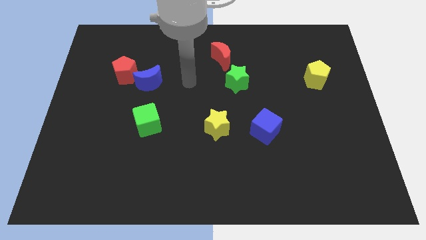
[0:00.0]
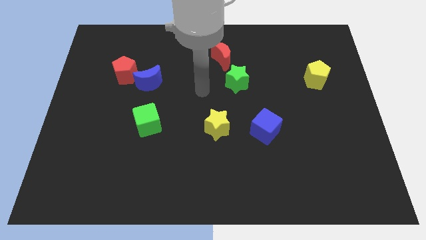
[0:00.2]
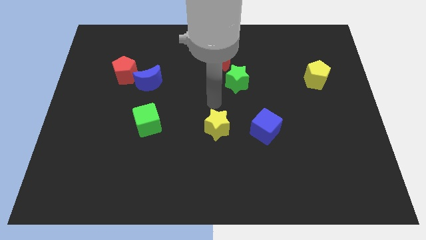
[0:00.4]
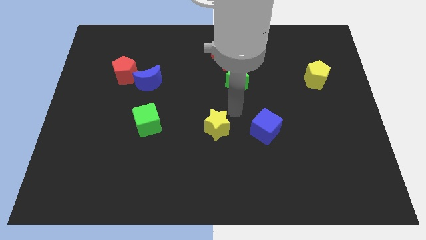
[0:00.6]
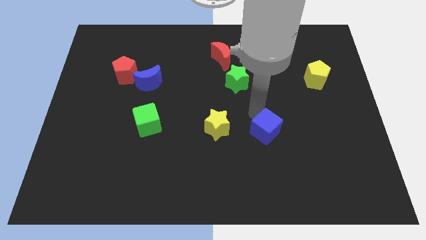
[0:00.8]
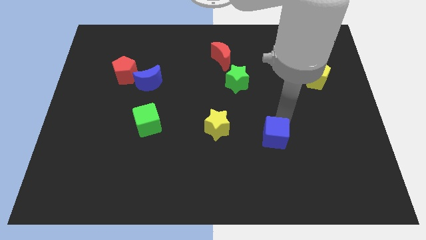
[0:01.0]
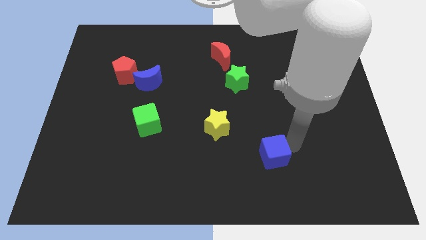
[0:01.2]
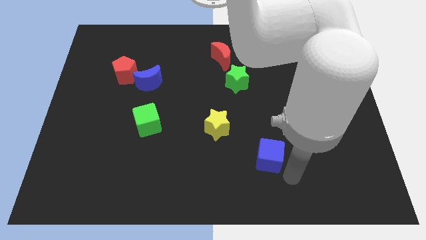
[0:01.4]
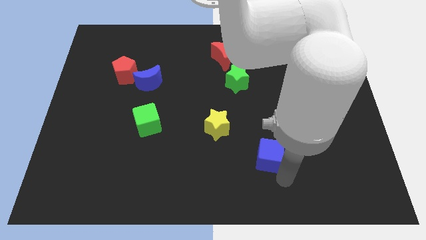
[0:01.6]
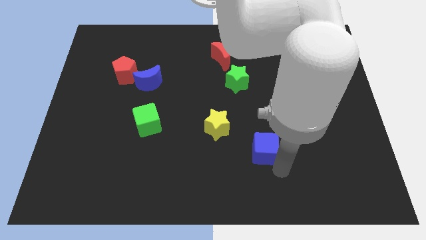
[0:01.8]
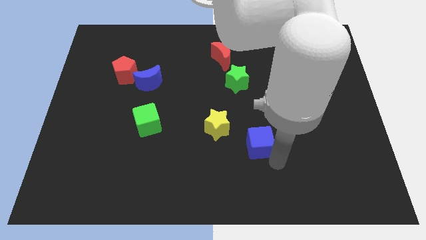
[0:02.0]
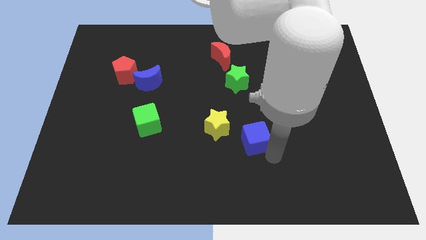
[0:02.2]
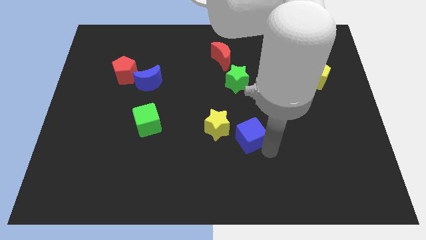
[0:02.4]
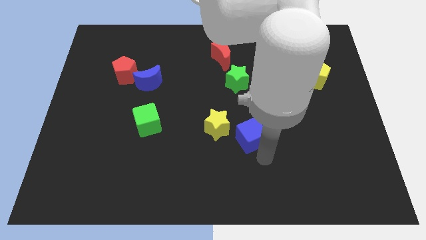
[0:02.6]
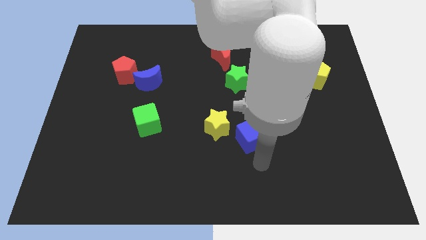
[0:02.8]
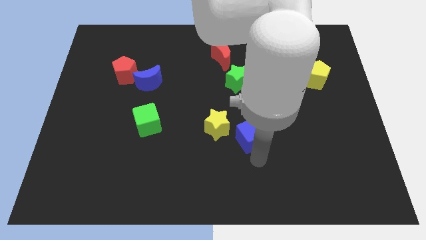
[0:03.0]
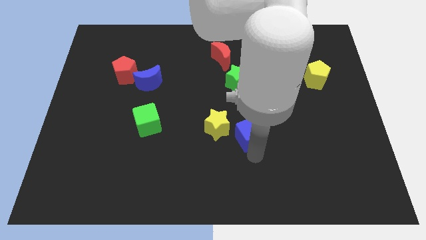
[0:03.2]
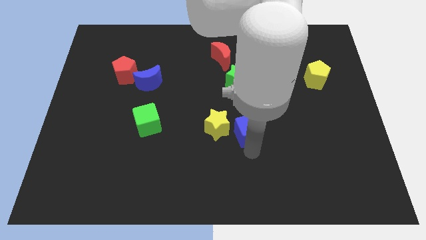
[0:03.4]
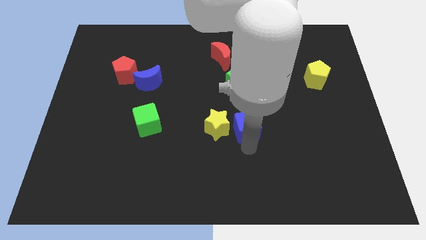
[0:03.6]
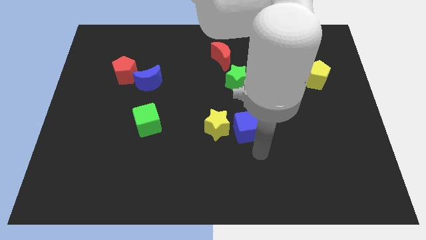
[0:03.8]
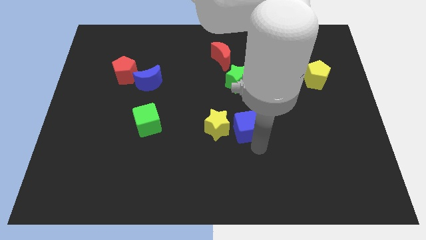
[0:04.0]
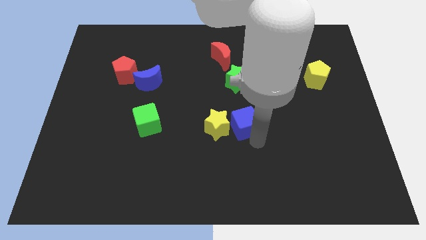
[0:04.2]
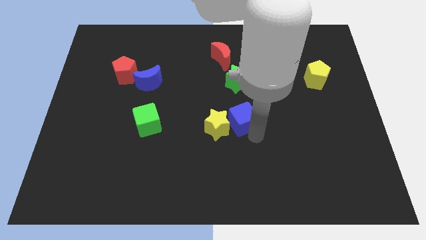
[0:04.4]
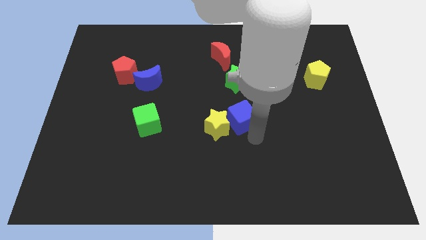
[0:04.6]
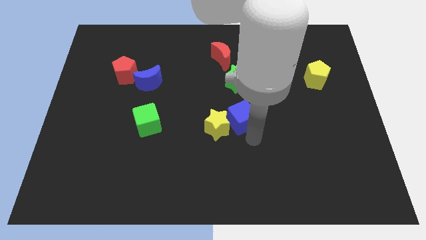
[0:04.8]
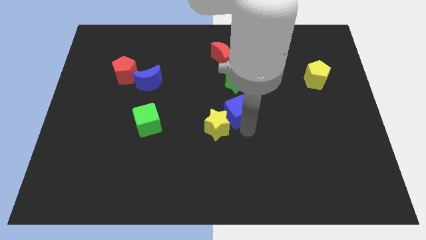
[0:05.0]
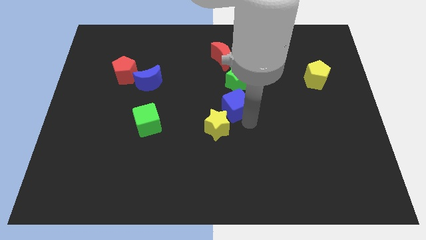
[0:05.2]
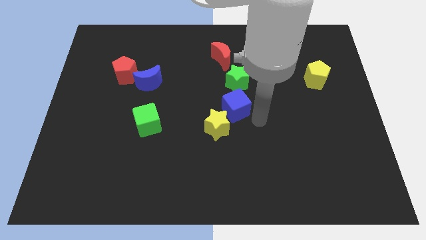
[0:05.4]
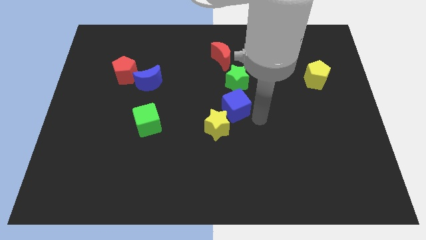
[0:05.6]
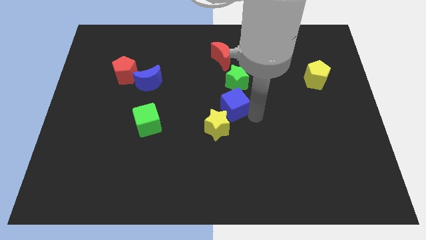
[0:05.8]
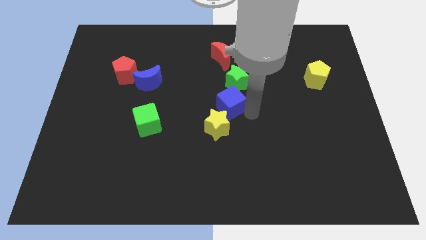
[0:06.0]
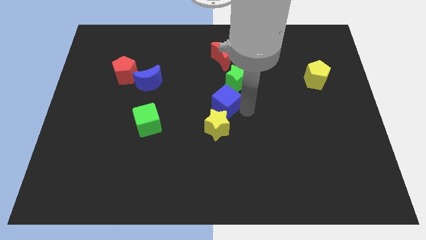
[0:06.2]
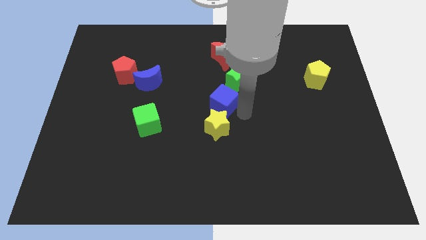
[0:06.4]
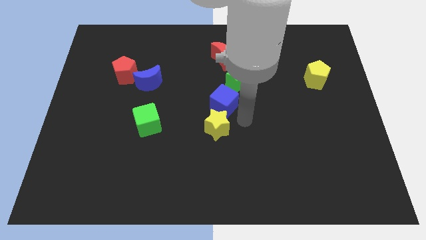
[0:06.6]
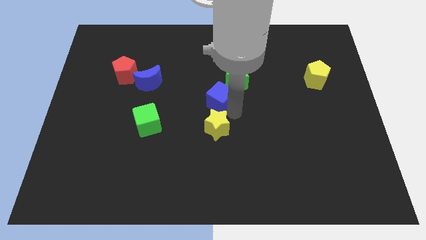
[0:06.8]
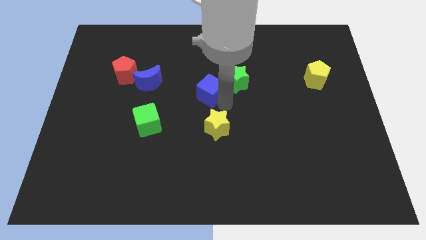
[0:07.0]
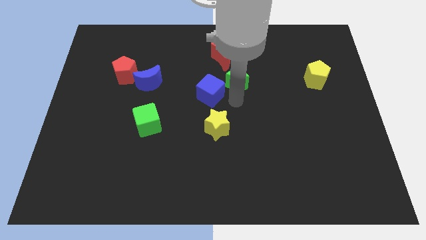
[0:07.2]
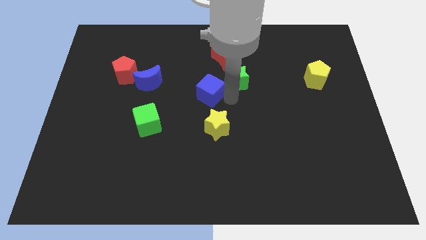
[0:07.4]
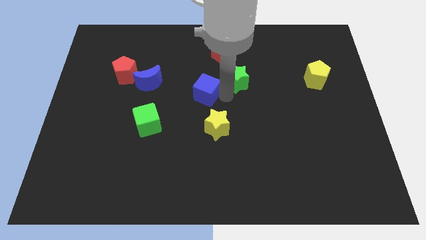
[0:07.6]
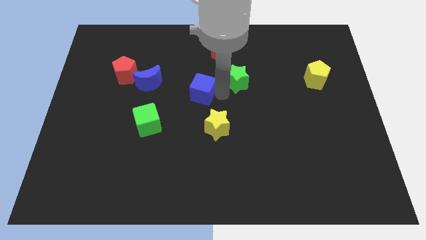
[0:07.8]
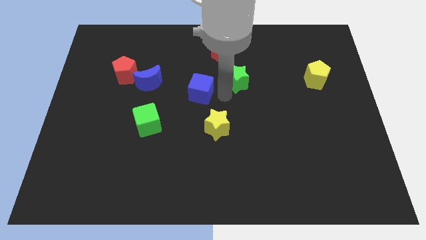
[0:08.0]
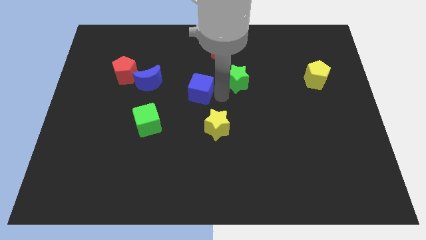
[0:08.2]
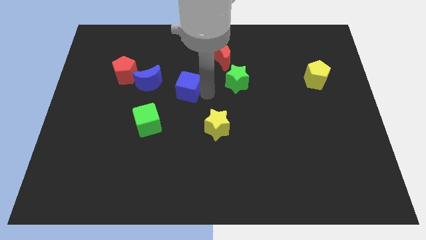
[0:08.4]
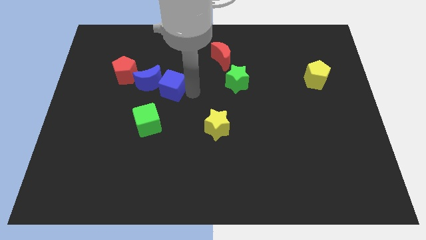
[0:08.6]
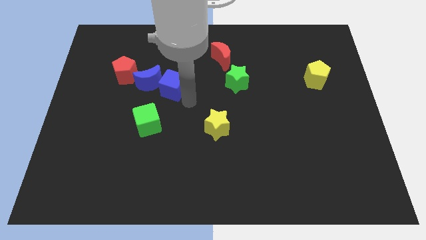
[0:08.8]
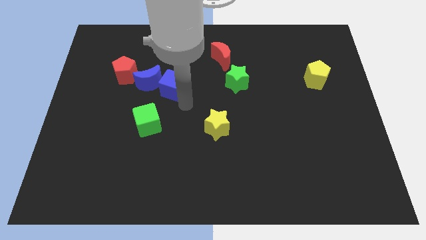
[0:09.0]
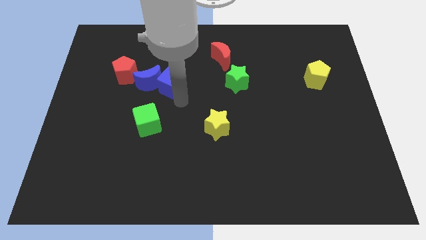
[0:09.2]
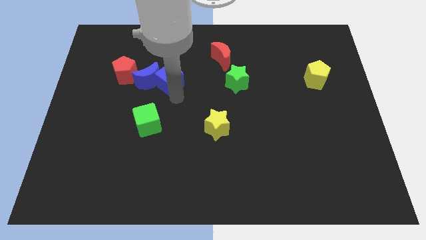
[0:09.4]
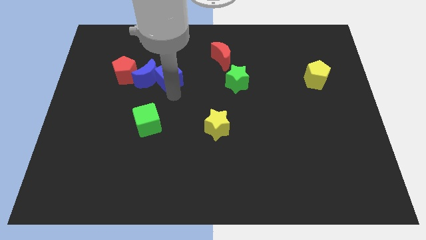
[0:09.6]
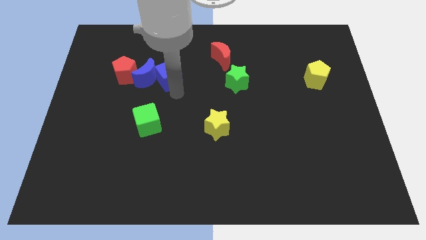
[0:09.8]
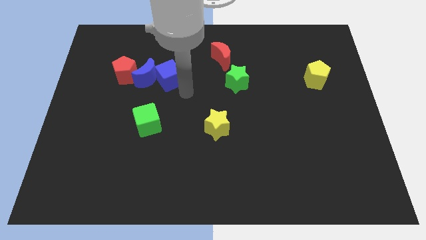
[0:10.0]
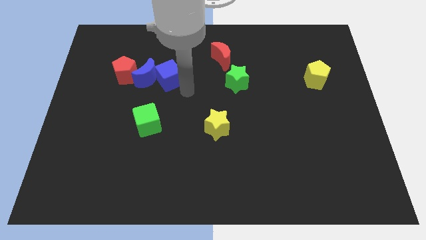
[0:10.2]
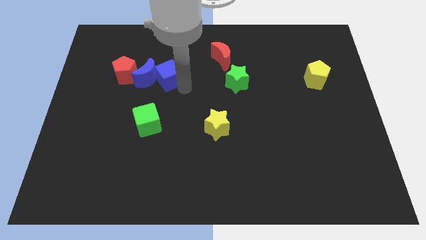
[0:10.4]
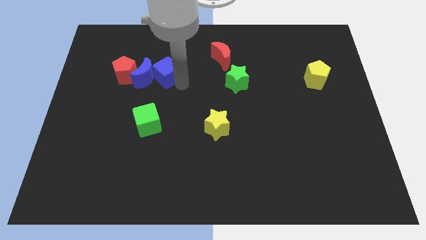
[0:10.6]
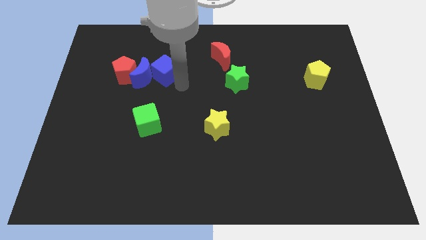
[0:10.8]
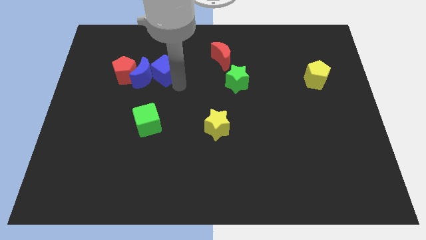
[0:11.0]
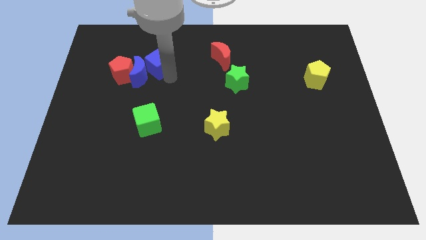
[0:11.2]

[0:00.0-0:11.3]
put the blue cube to the top right side of the red pentagon
